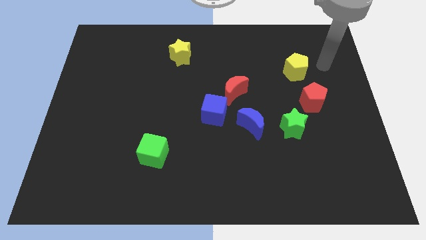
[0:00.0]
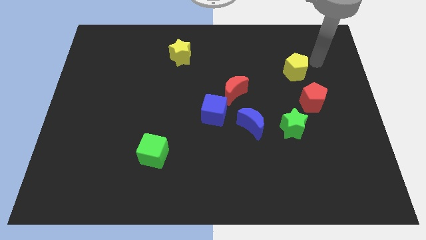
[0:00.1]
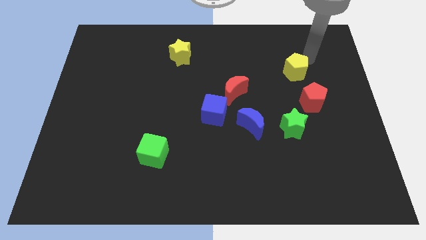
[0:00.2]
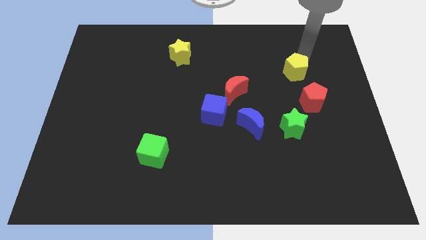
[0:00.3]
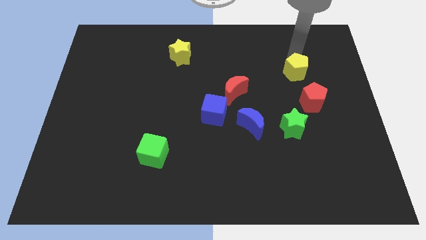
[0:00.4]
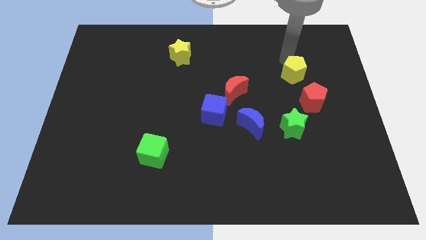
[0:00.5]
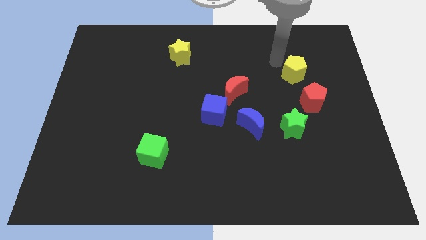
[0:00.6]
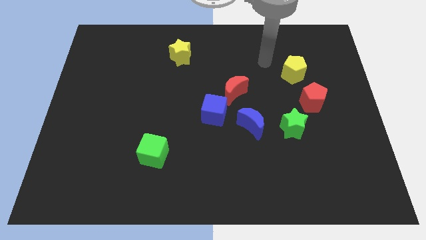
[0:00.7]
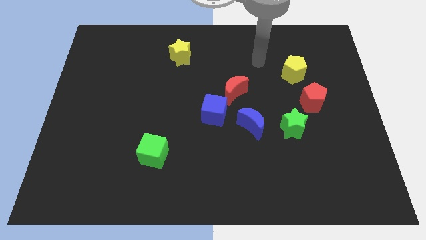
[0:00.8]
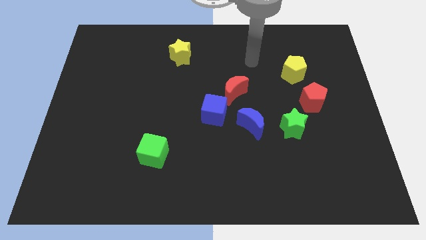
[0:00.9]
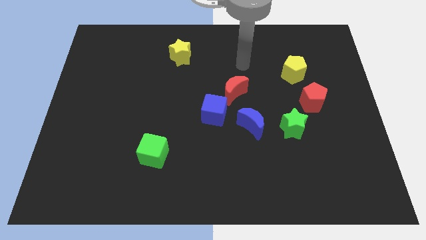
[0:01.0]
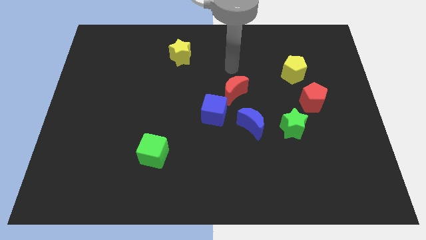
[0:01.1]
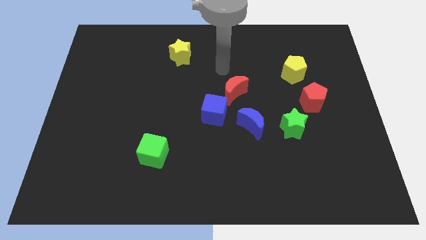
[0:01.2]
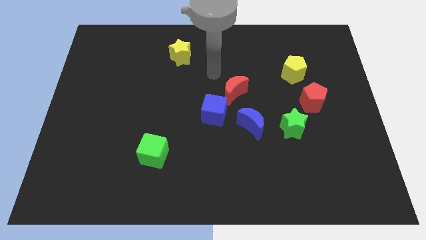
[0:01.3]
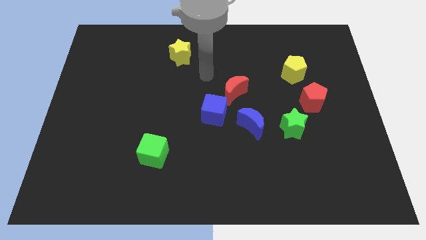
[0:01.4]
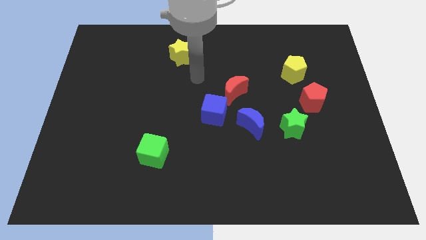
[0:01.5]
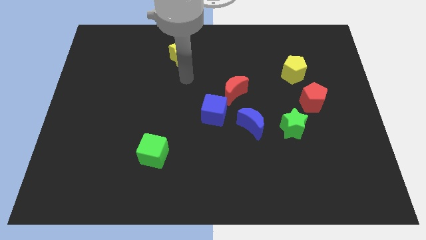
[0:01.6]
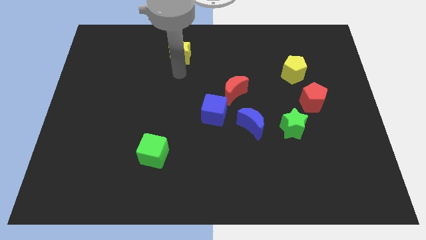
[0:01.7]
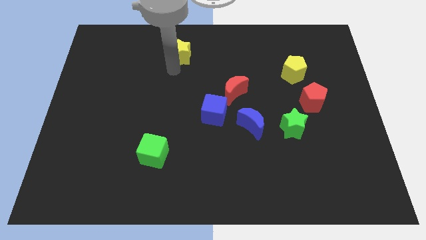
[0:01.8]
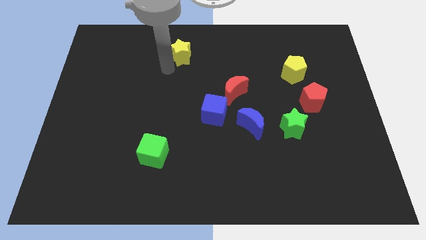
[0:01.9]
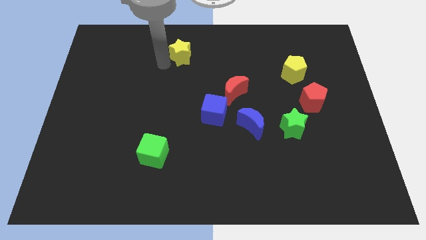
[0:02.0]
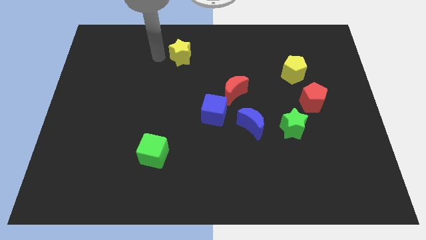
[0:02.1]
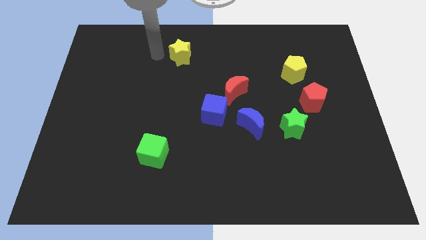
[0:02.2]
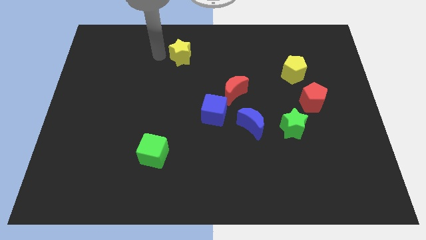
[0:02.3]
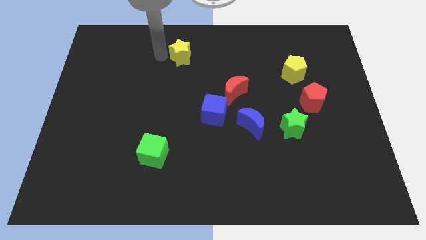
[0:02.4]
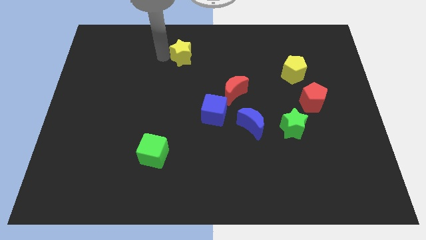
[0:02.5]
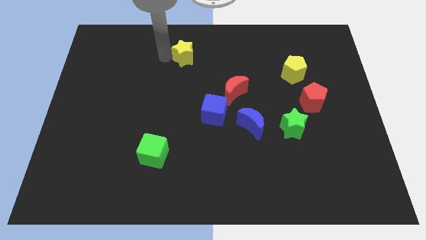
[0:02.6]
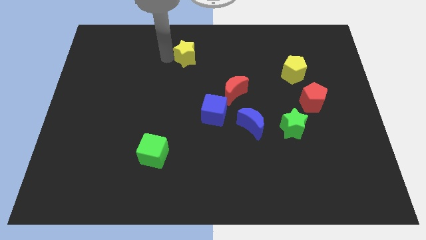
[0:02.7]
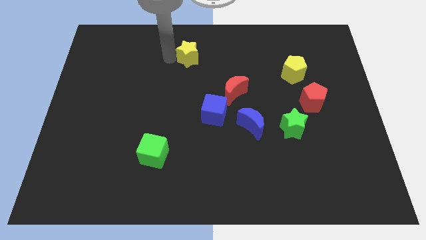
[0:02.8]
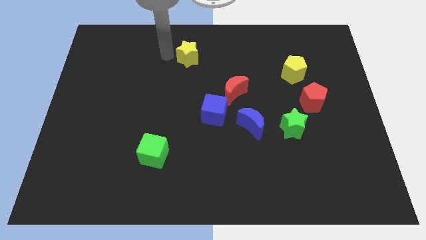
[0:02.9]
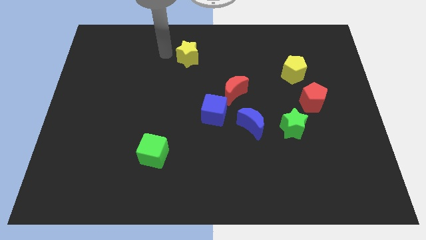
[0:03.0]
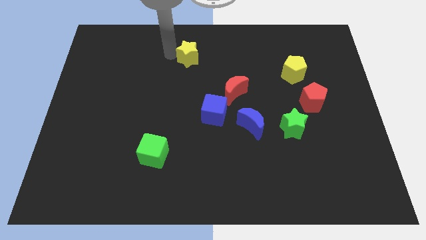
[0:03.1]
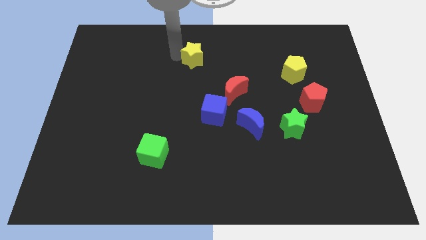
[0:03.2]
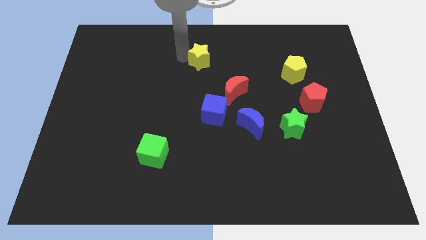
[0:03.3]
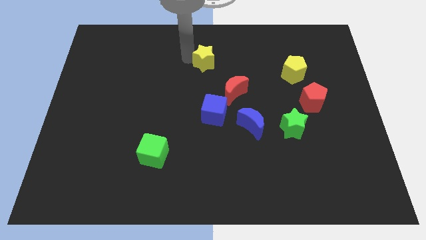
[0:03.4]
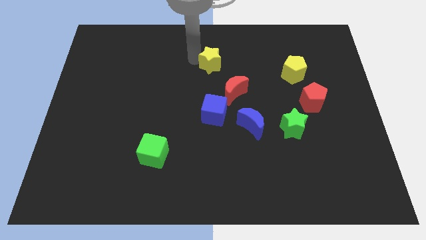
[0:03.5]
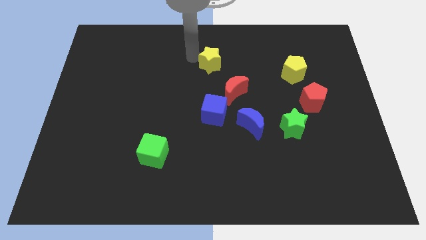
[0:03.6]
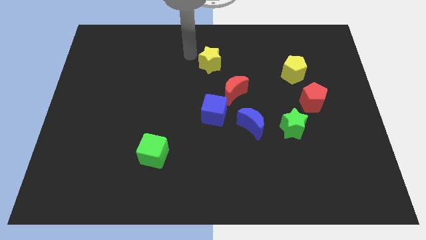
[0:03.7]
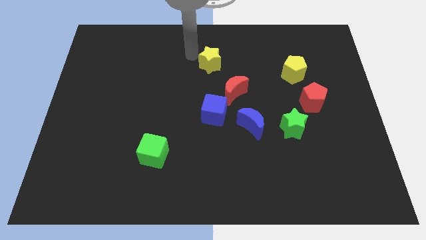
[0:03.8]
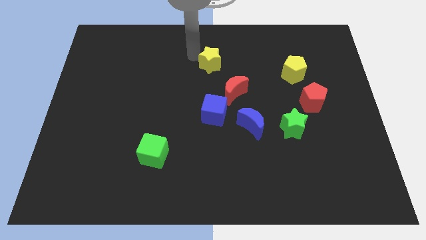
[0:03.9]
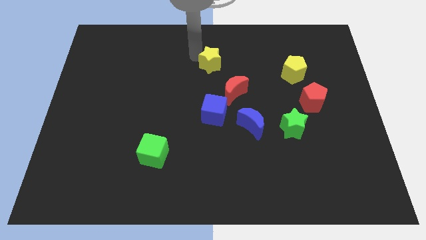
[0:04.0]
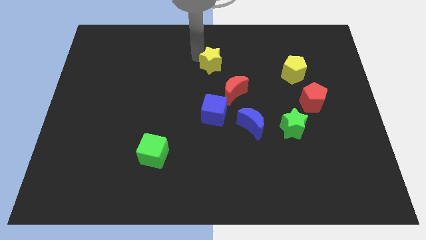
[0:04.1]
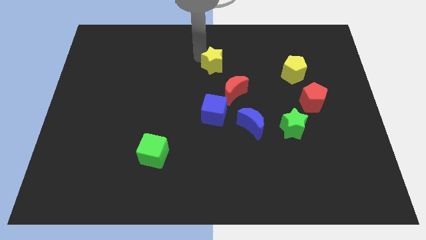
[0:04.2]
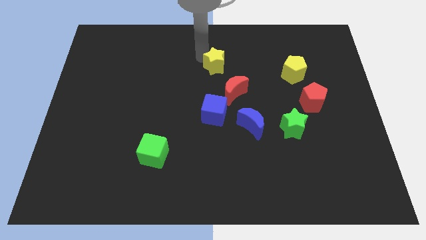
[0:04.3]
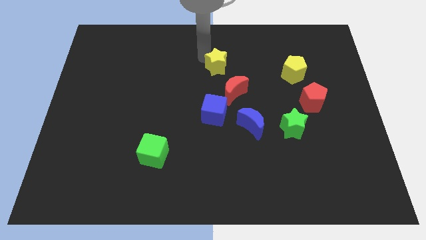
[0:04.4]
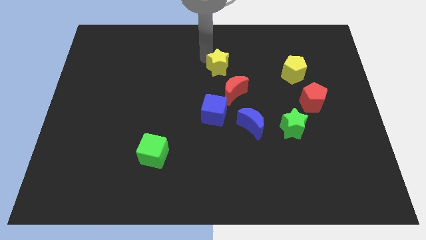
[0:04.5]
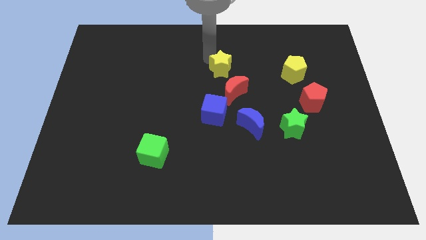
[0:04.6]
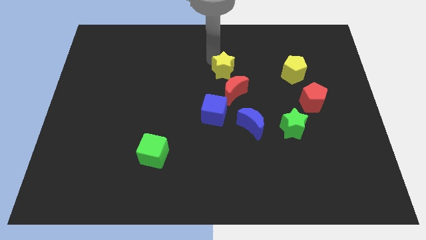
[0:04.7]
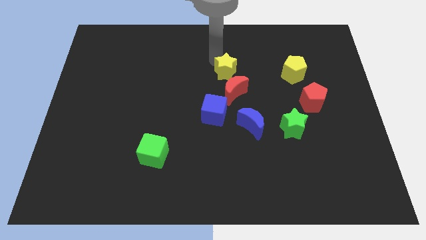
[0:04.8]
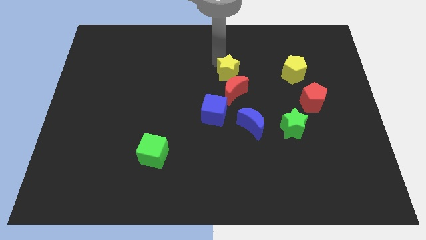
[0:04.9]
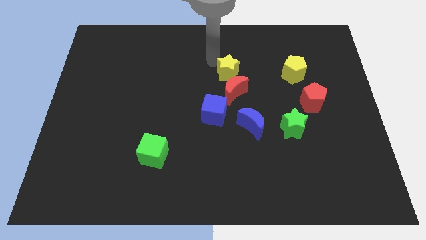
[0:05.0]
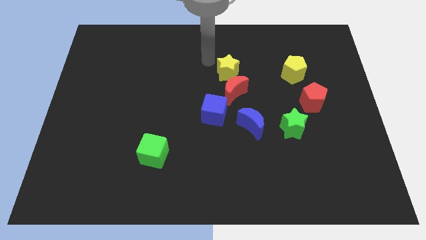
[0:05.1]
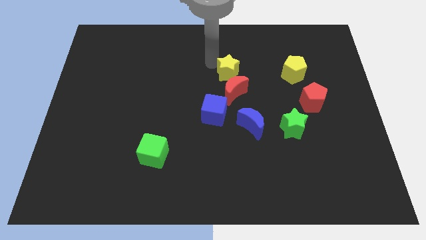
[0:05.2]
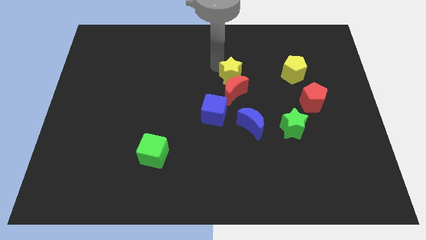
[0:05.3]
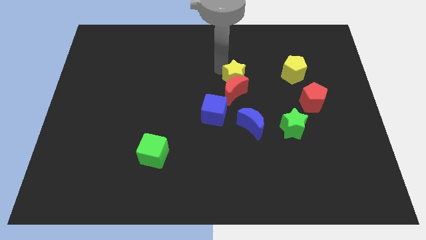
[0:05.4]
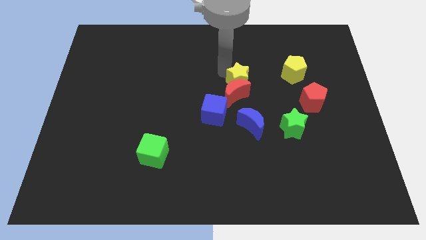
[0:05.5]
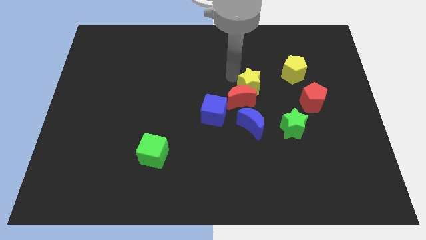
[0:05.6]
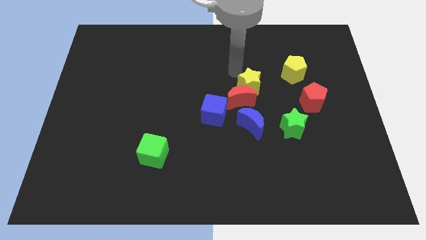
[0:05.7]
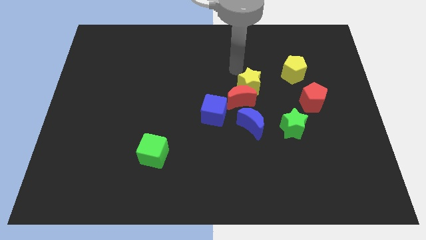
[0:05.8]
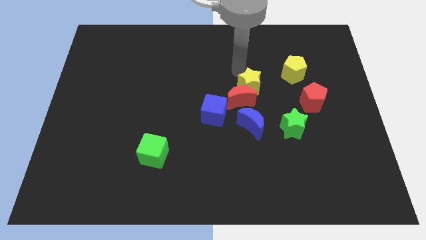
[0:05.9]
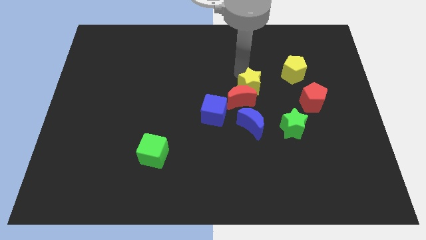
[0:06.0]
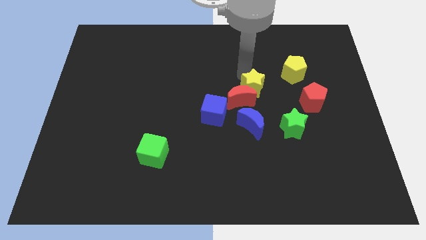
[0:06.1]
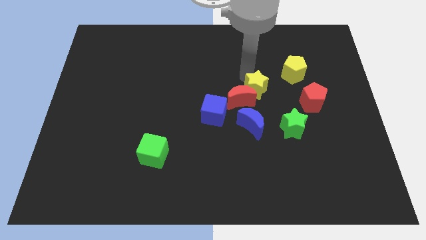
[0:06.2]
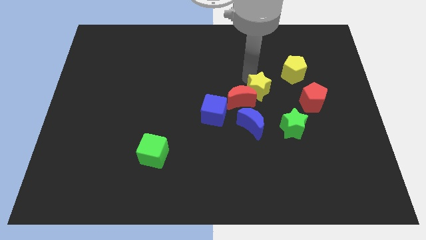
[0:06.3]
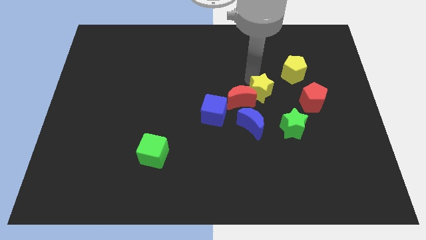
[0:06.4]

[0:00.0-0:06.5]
put the yellow star to the top left side of the green star

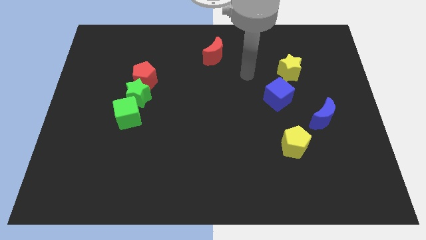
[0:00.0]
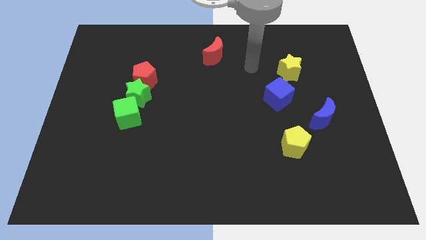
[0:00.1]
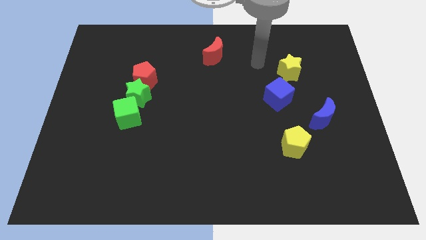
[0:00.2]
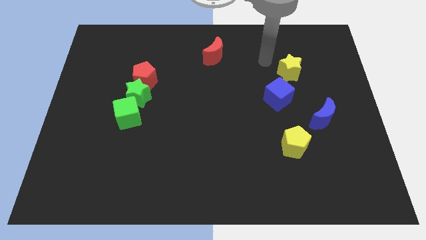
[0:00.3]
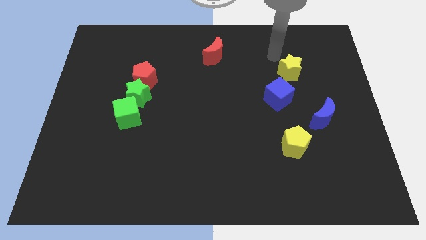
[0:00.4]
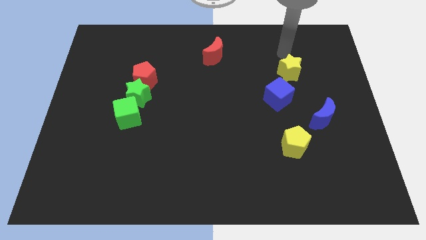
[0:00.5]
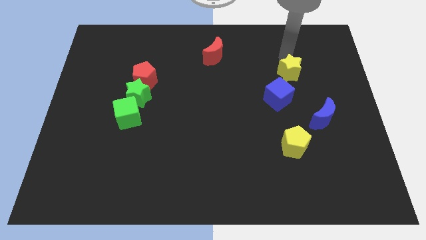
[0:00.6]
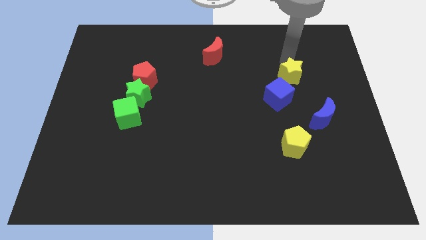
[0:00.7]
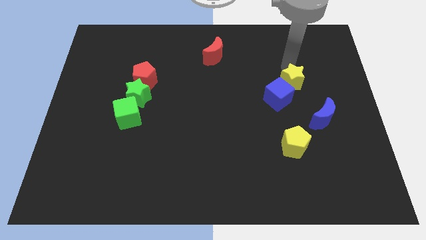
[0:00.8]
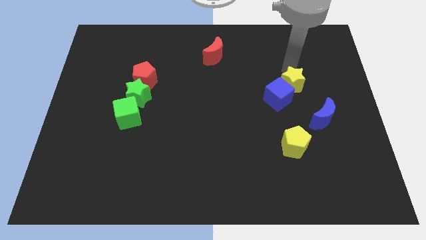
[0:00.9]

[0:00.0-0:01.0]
move the yellow star diagonally up and to the left of the blue moon
